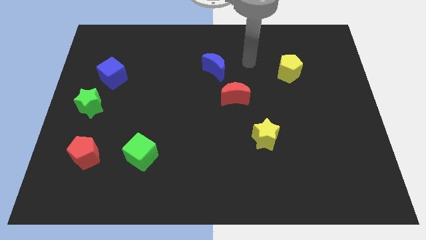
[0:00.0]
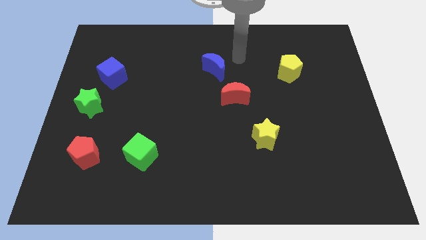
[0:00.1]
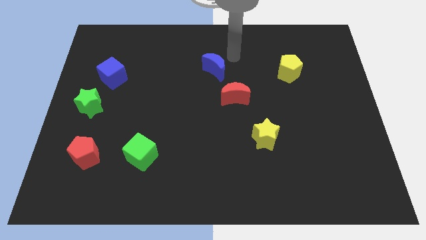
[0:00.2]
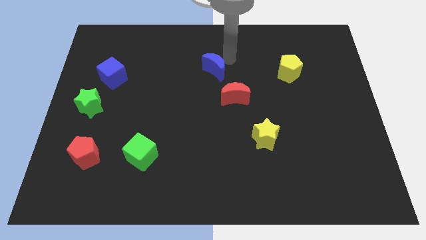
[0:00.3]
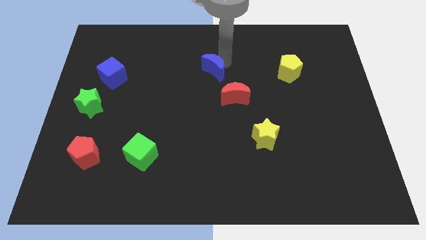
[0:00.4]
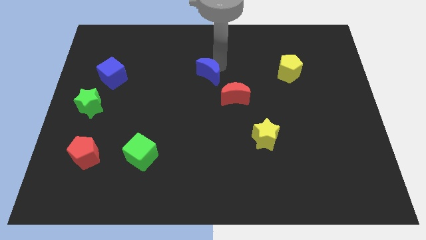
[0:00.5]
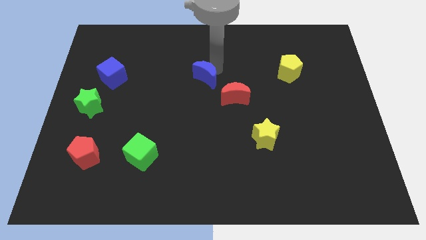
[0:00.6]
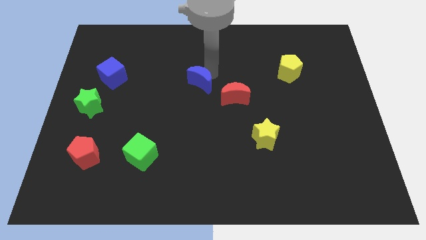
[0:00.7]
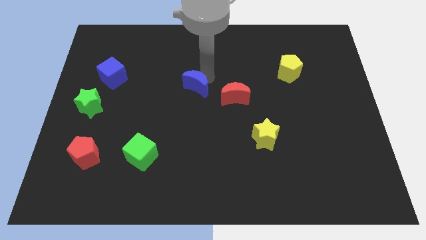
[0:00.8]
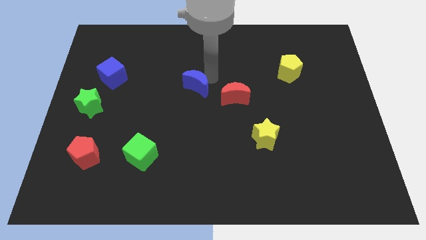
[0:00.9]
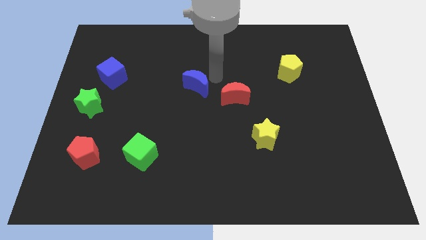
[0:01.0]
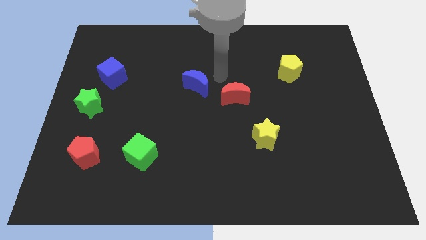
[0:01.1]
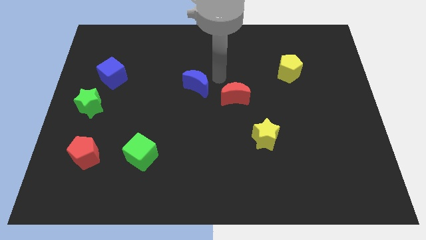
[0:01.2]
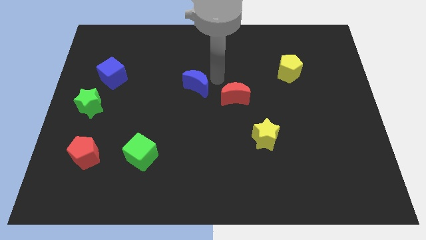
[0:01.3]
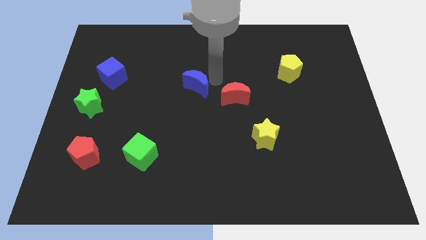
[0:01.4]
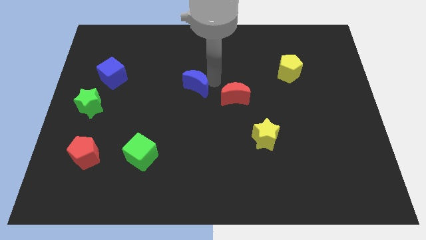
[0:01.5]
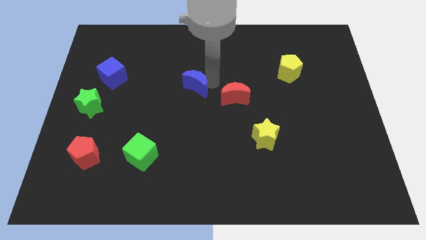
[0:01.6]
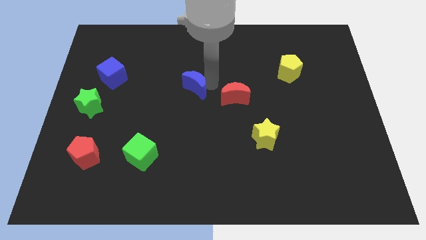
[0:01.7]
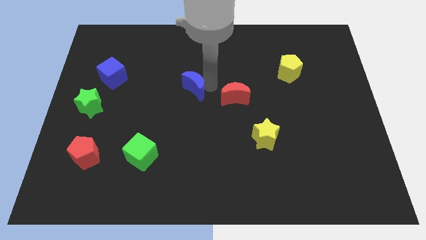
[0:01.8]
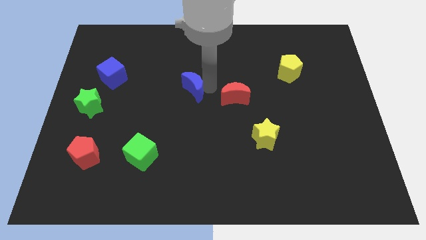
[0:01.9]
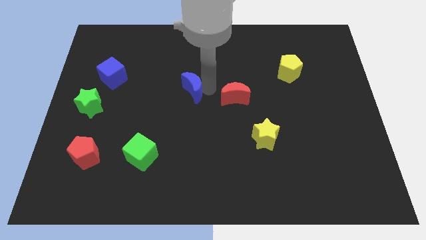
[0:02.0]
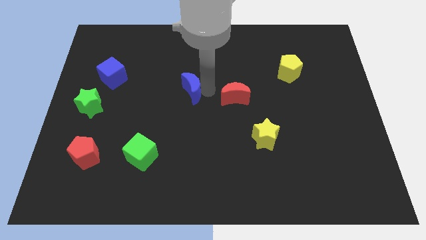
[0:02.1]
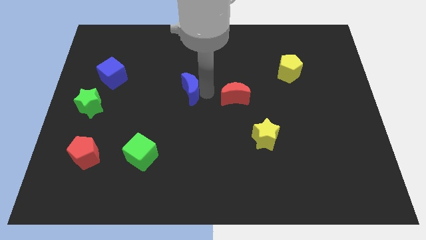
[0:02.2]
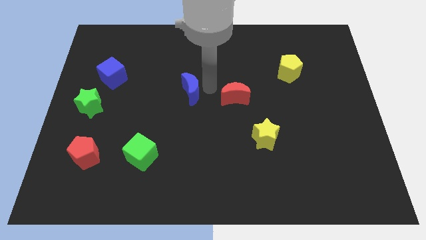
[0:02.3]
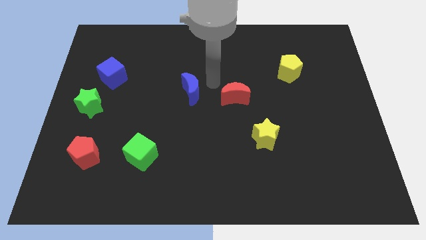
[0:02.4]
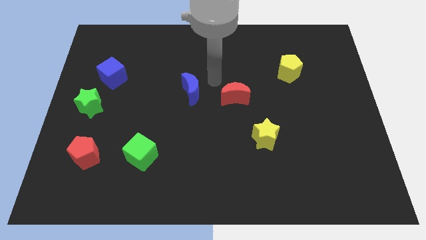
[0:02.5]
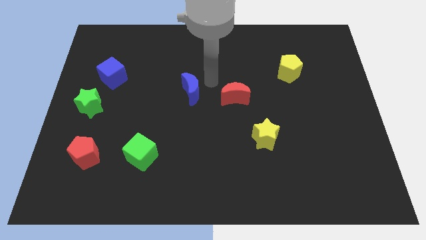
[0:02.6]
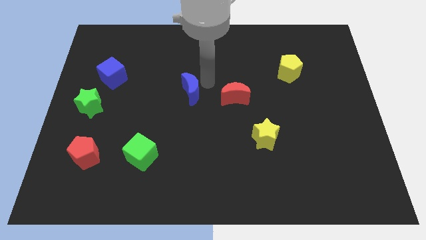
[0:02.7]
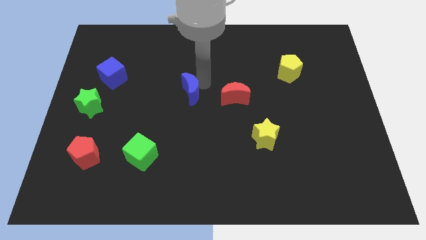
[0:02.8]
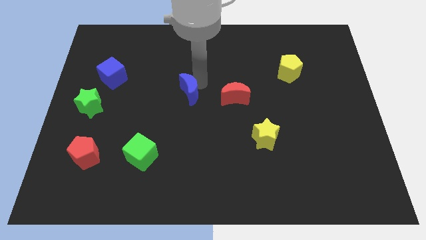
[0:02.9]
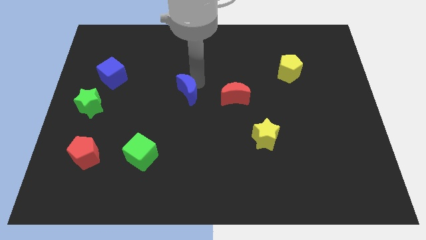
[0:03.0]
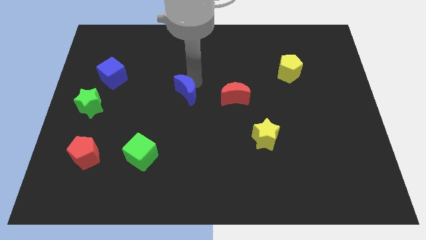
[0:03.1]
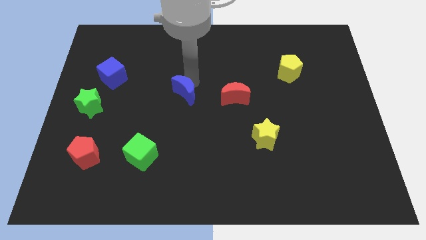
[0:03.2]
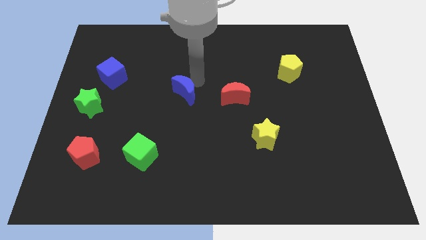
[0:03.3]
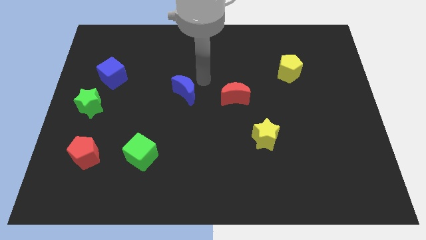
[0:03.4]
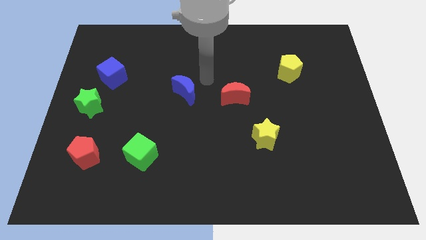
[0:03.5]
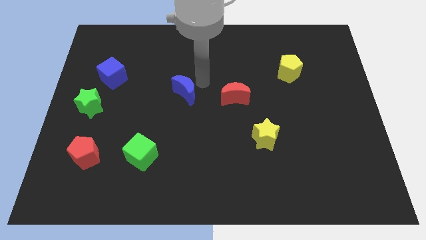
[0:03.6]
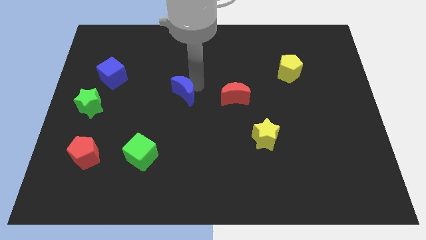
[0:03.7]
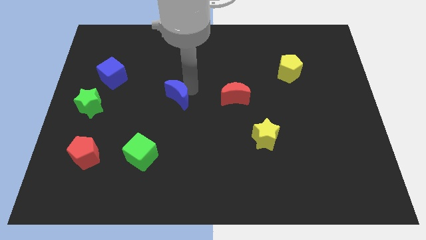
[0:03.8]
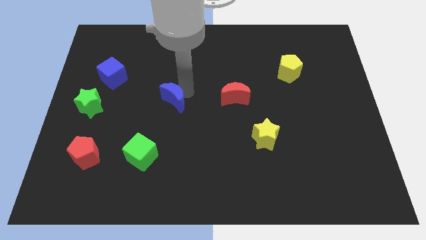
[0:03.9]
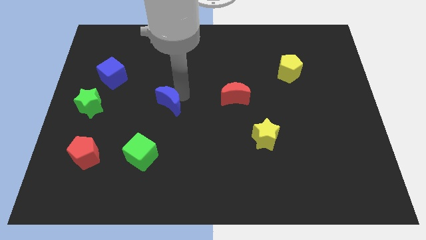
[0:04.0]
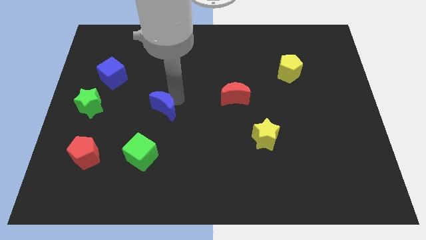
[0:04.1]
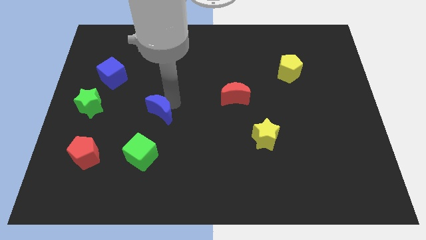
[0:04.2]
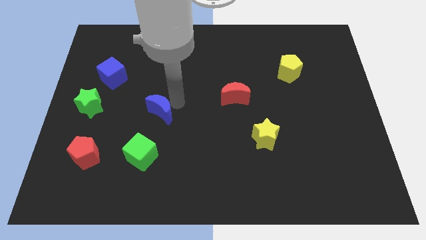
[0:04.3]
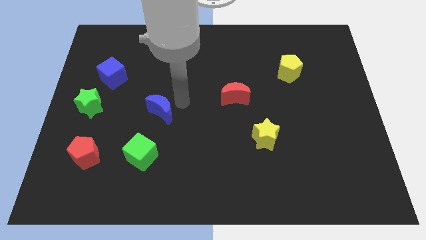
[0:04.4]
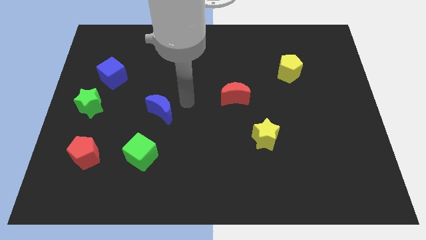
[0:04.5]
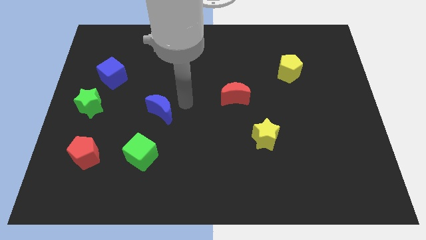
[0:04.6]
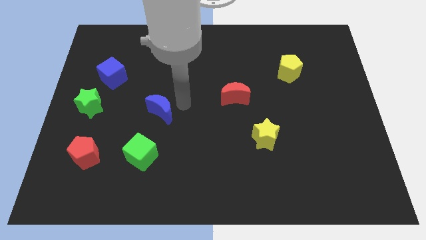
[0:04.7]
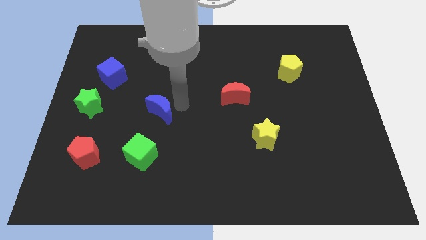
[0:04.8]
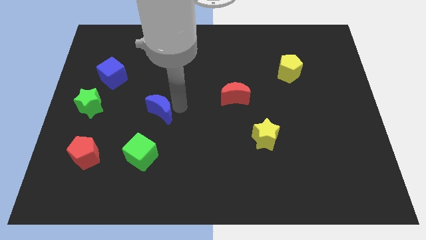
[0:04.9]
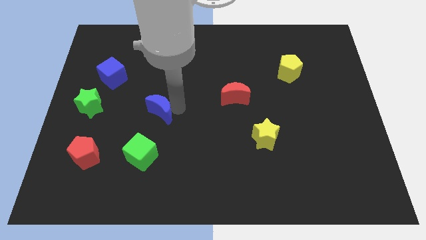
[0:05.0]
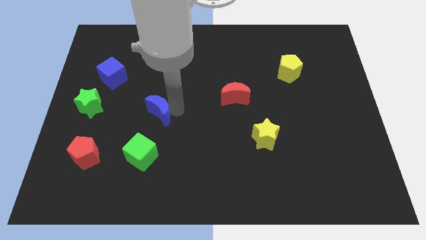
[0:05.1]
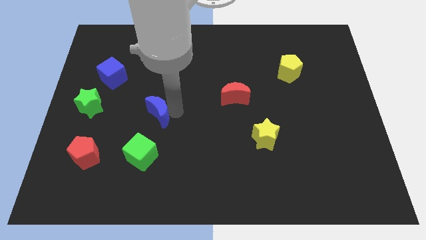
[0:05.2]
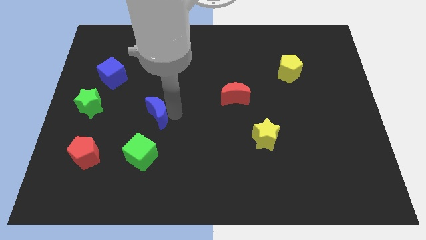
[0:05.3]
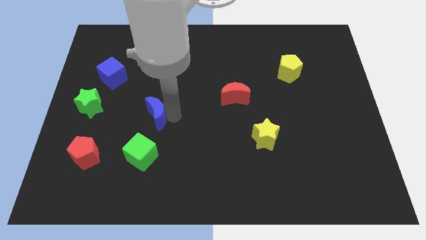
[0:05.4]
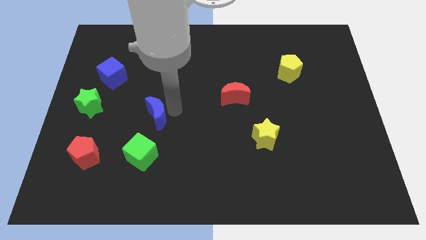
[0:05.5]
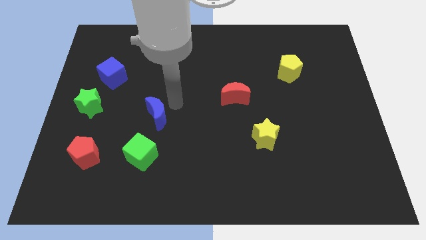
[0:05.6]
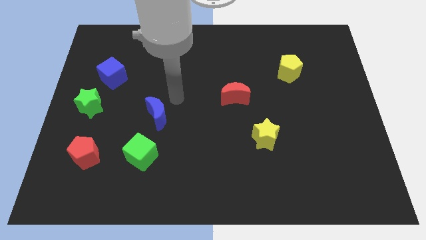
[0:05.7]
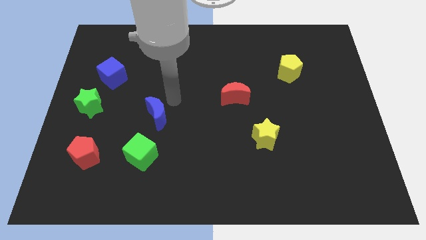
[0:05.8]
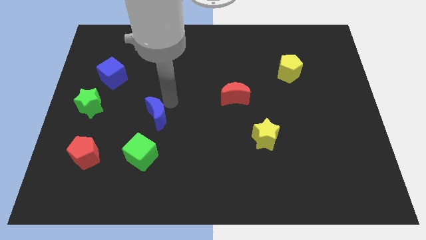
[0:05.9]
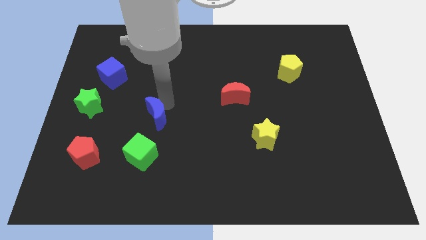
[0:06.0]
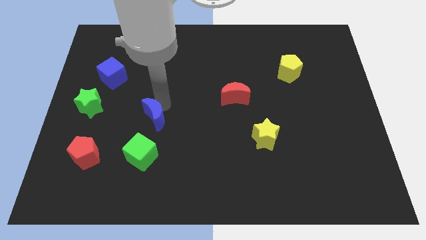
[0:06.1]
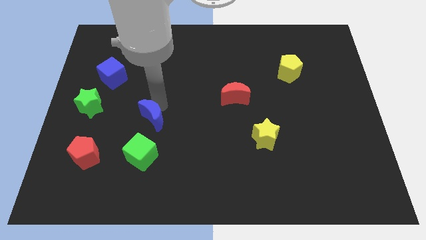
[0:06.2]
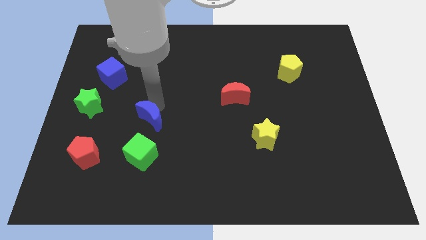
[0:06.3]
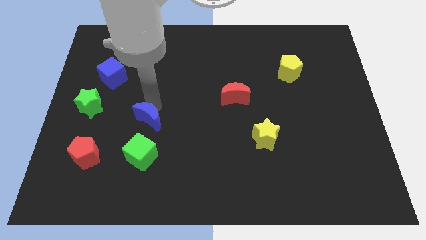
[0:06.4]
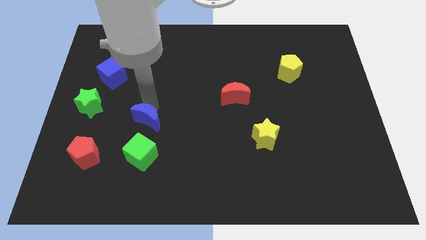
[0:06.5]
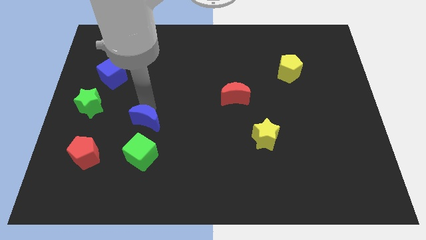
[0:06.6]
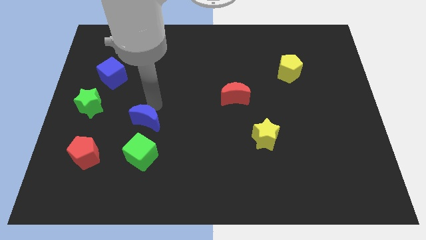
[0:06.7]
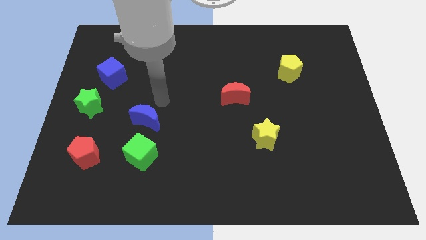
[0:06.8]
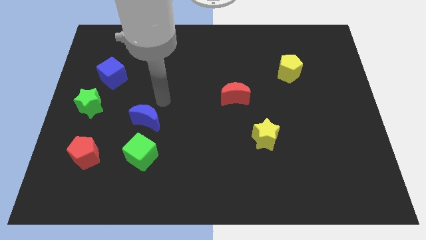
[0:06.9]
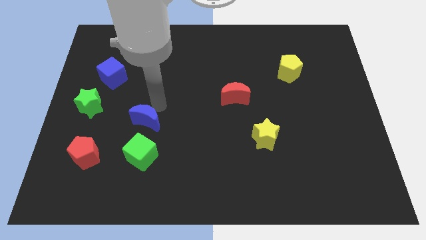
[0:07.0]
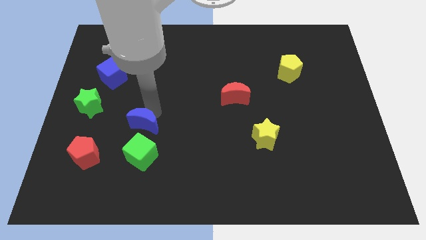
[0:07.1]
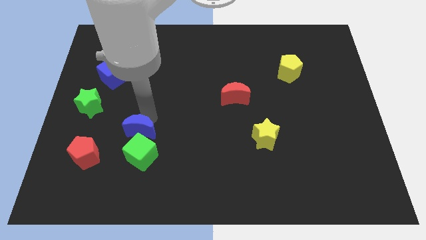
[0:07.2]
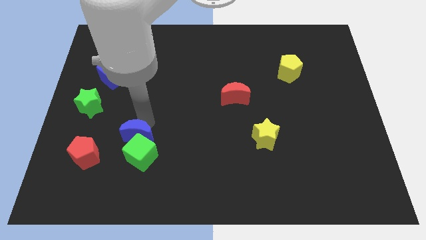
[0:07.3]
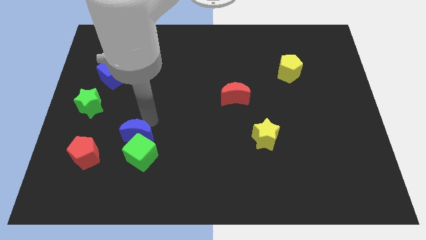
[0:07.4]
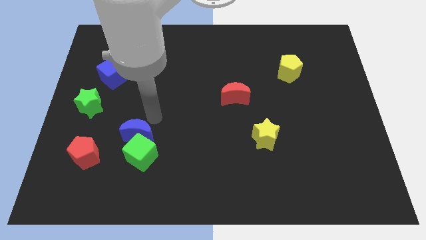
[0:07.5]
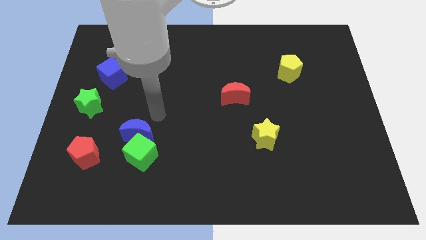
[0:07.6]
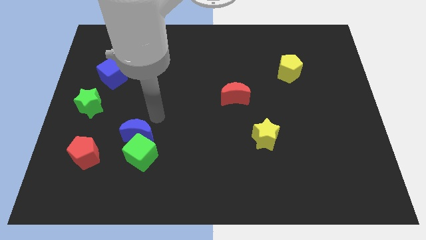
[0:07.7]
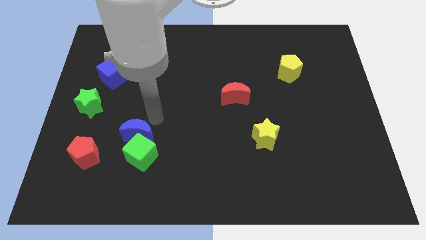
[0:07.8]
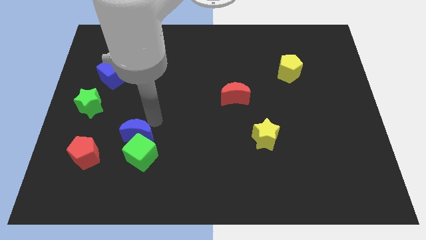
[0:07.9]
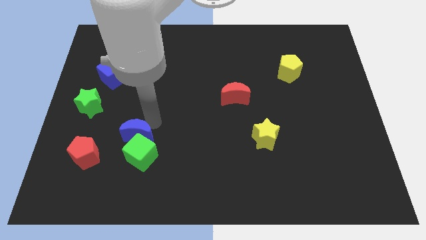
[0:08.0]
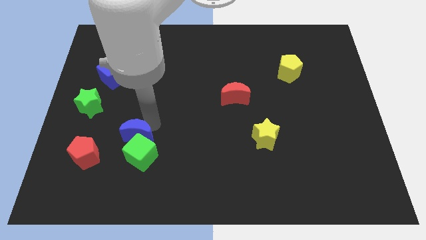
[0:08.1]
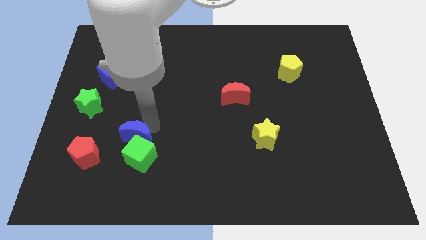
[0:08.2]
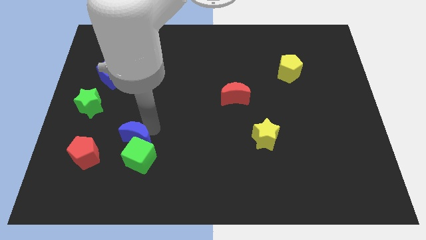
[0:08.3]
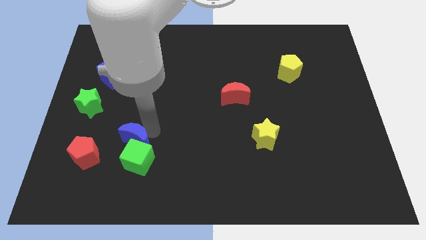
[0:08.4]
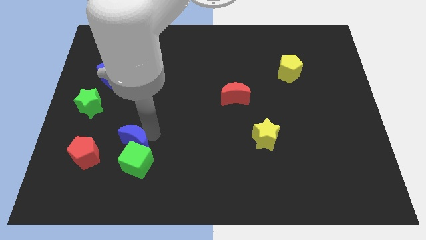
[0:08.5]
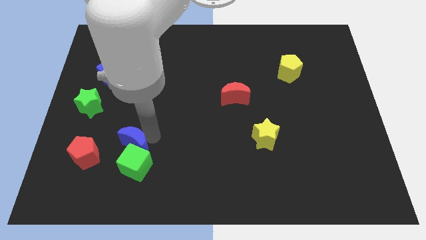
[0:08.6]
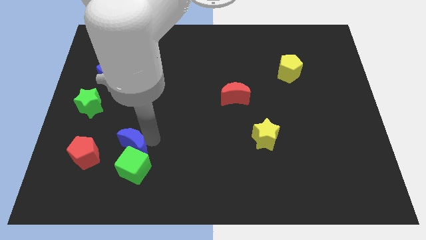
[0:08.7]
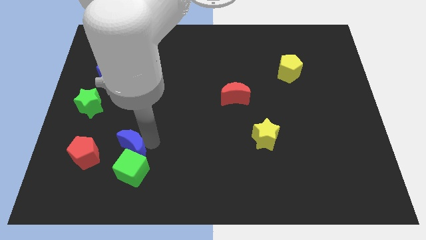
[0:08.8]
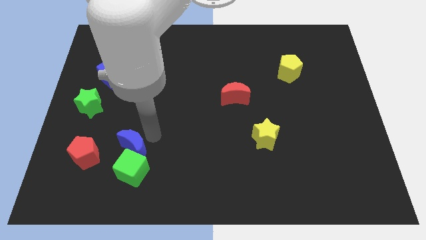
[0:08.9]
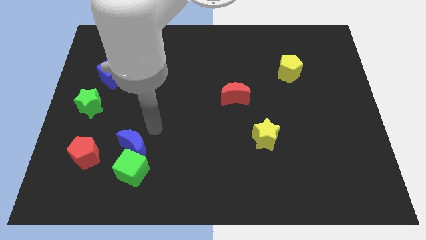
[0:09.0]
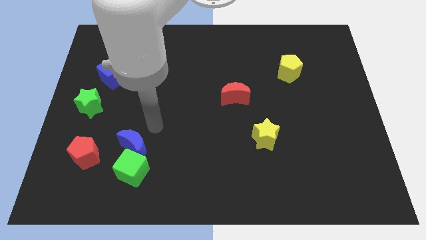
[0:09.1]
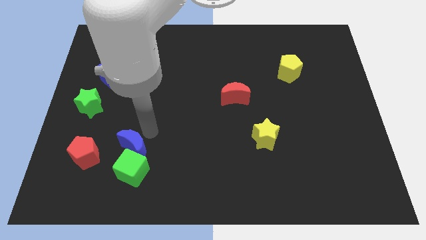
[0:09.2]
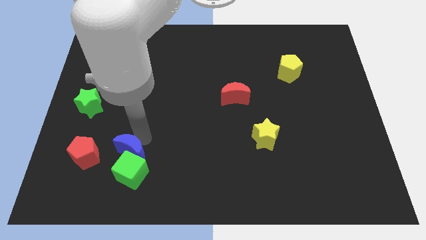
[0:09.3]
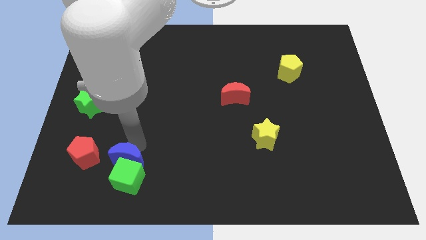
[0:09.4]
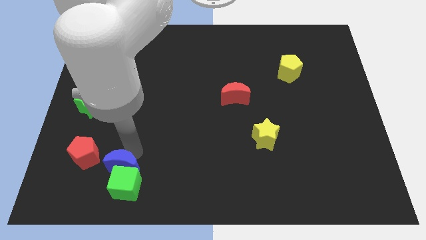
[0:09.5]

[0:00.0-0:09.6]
slide the blue moon to the bottom right side of the red pentagon
